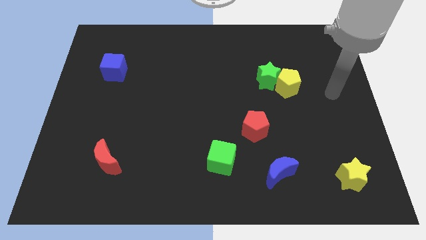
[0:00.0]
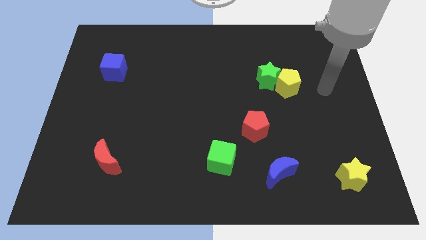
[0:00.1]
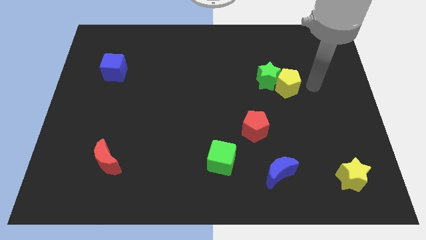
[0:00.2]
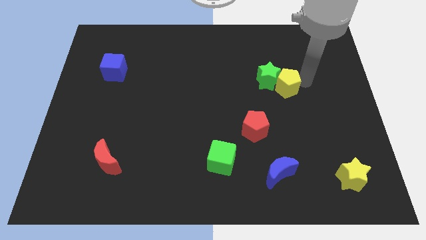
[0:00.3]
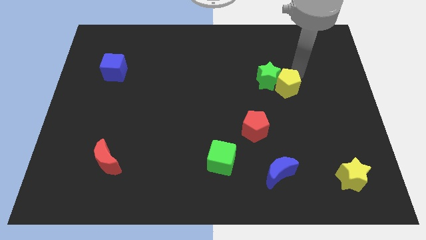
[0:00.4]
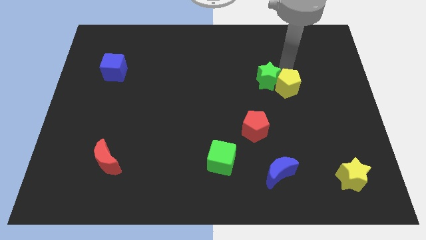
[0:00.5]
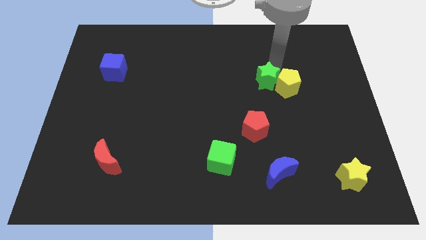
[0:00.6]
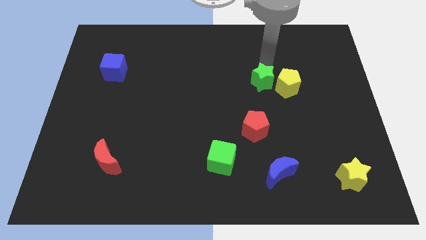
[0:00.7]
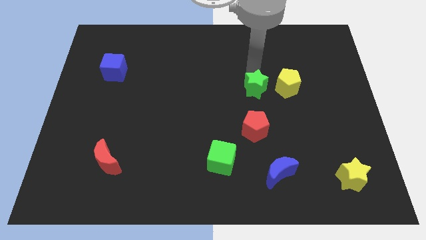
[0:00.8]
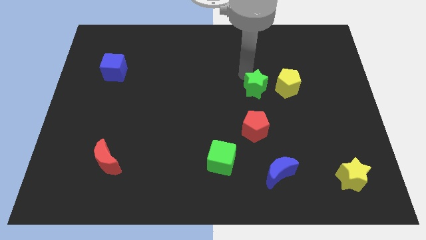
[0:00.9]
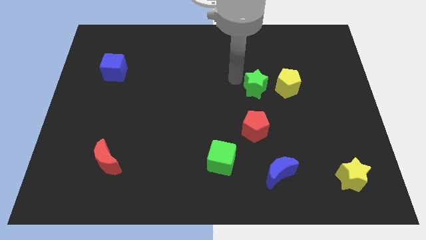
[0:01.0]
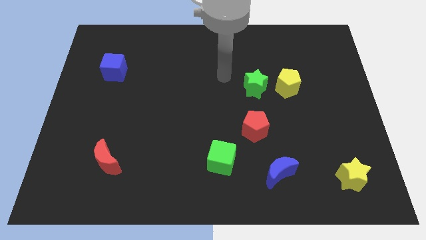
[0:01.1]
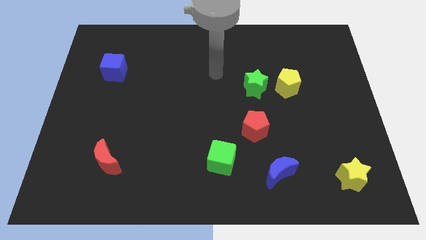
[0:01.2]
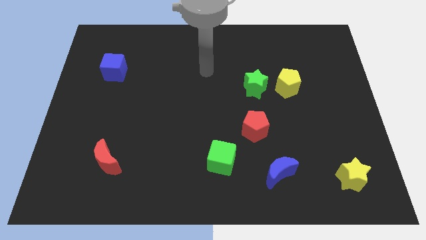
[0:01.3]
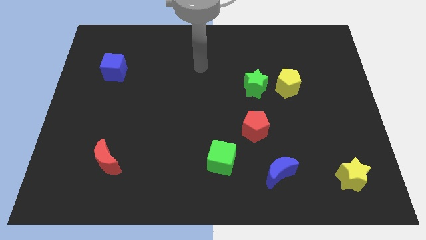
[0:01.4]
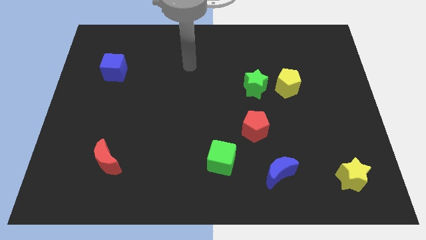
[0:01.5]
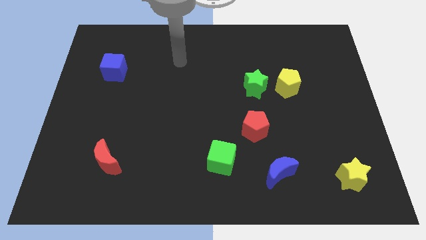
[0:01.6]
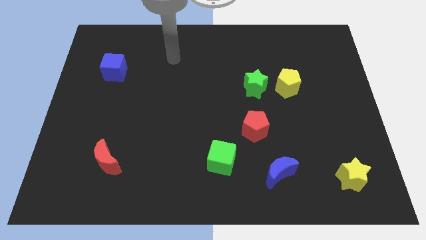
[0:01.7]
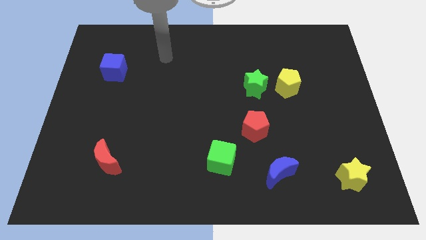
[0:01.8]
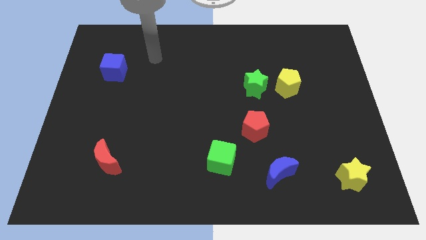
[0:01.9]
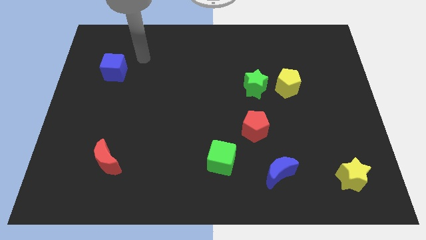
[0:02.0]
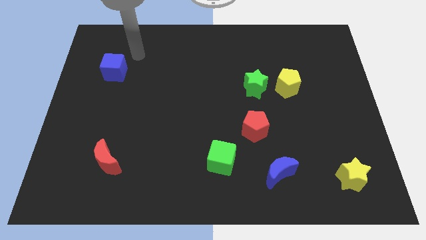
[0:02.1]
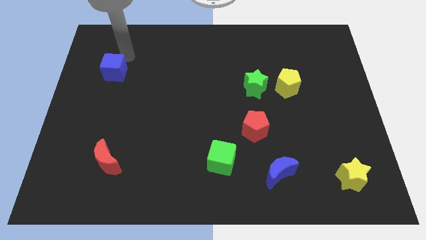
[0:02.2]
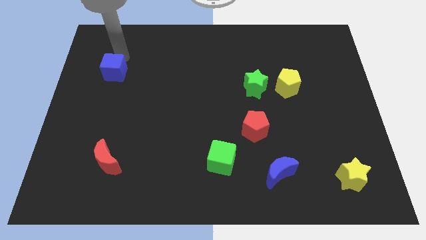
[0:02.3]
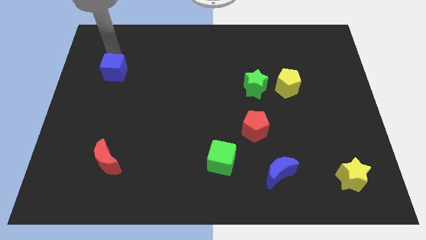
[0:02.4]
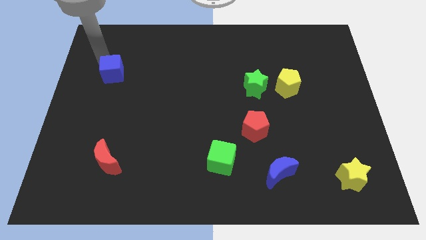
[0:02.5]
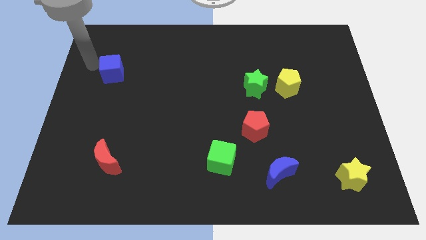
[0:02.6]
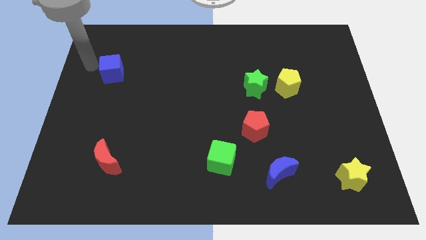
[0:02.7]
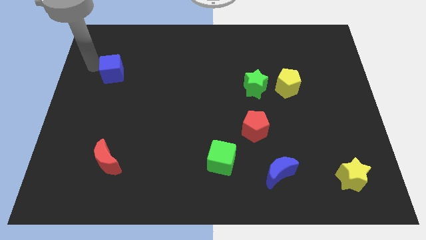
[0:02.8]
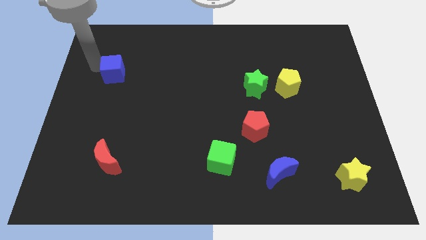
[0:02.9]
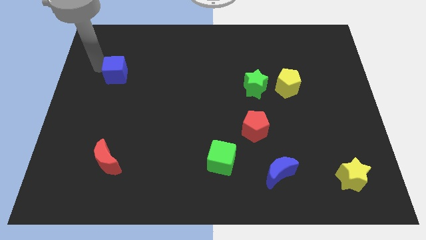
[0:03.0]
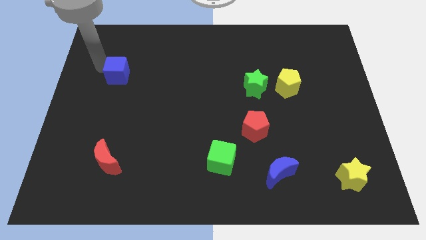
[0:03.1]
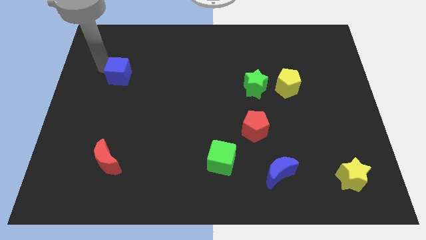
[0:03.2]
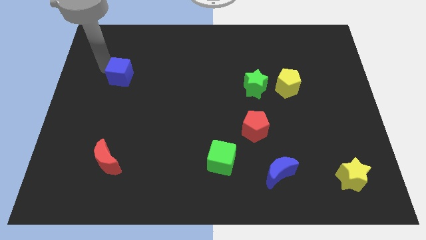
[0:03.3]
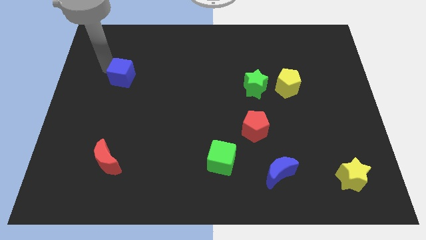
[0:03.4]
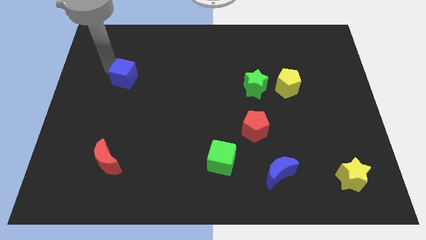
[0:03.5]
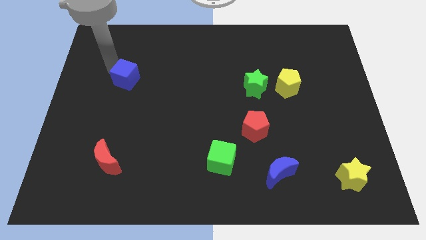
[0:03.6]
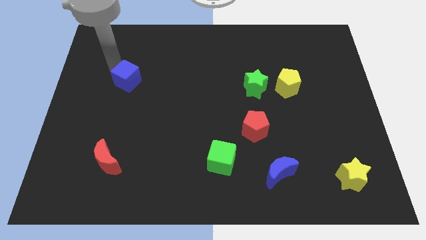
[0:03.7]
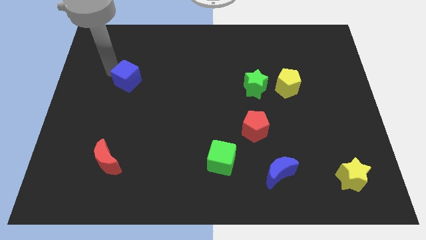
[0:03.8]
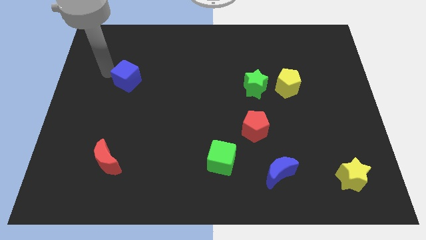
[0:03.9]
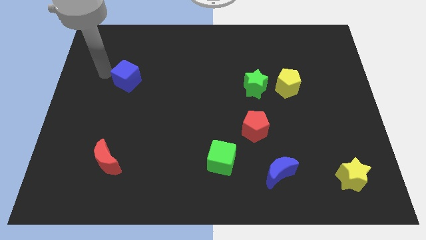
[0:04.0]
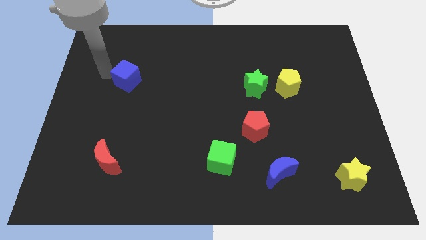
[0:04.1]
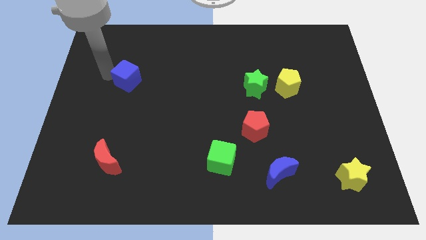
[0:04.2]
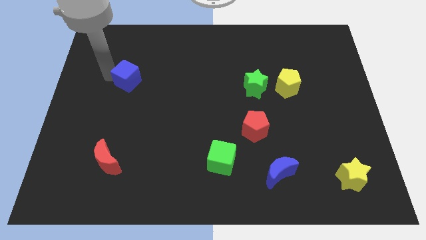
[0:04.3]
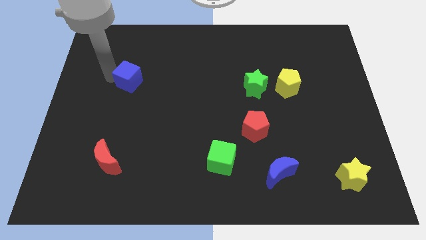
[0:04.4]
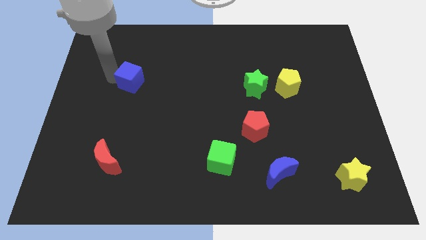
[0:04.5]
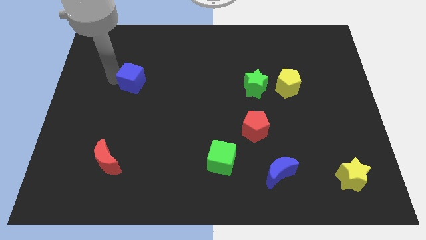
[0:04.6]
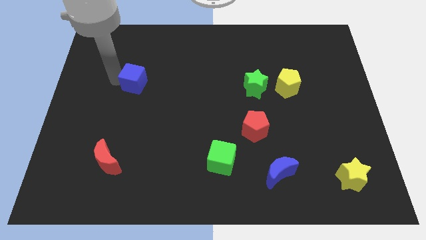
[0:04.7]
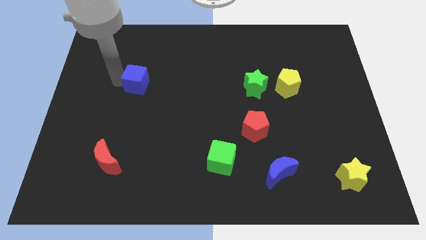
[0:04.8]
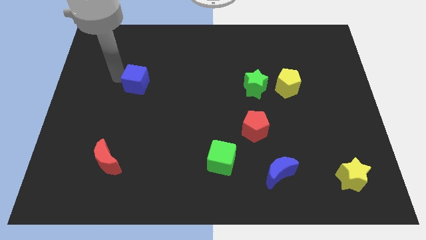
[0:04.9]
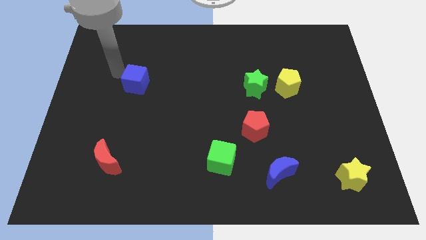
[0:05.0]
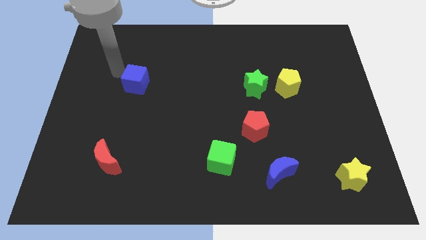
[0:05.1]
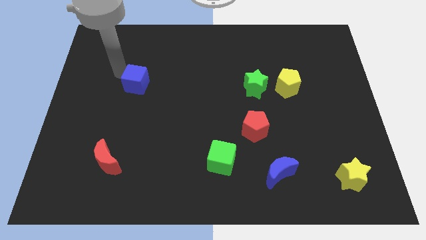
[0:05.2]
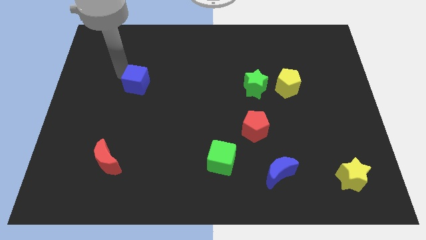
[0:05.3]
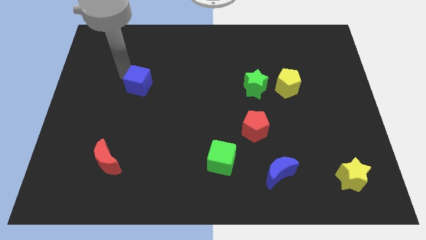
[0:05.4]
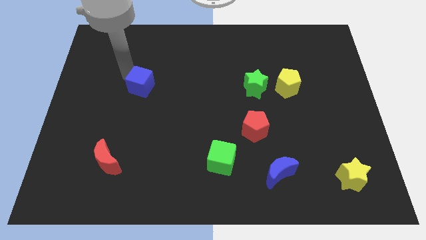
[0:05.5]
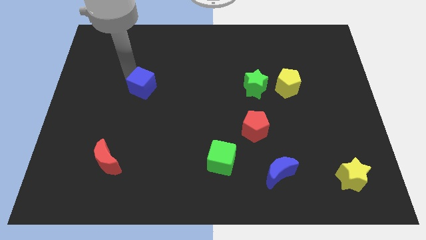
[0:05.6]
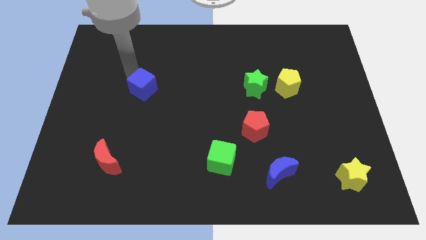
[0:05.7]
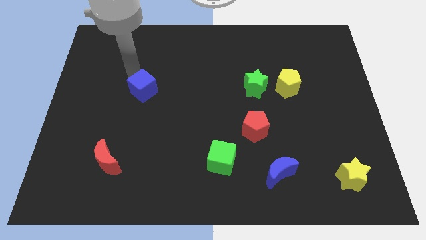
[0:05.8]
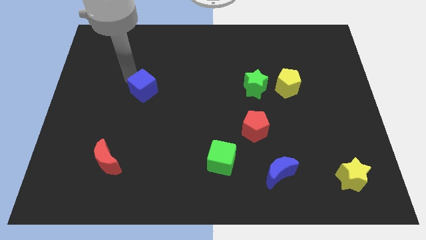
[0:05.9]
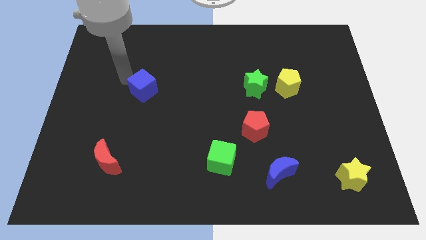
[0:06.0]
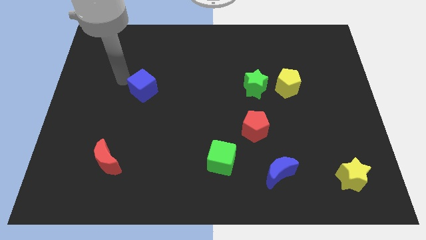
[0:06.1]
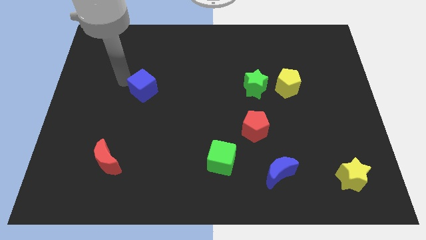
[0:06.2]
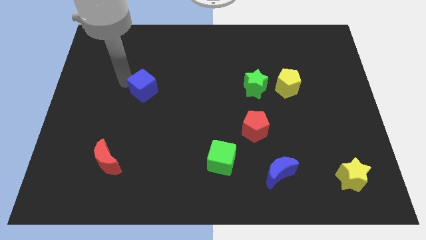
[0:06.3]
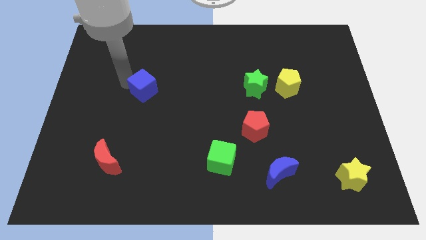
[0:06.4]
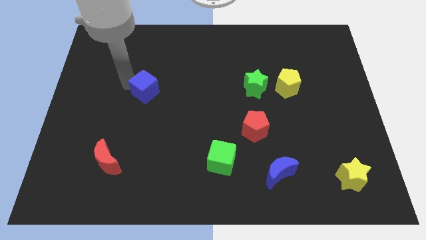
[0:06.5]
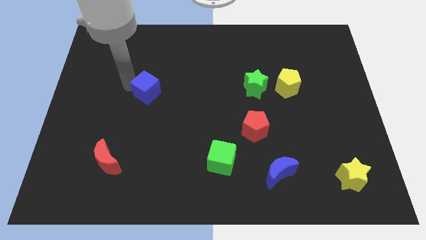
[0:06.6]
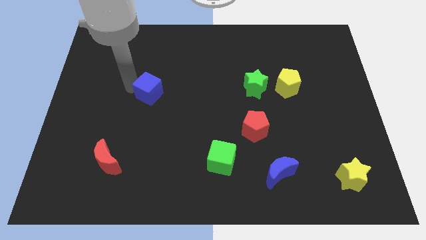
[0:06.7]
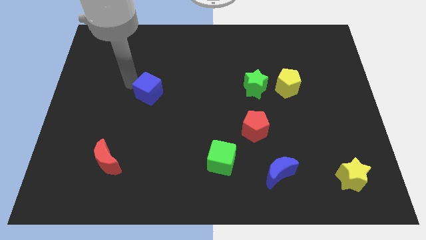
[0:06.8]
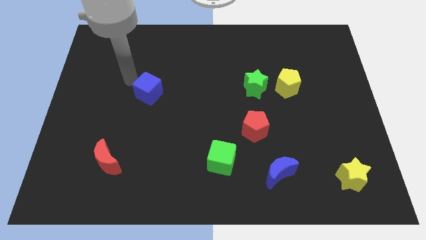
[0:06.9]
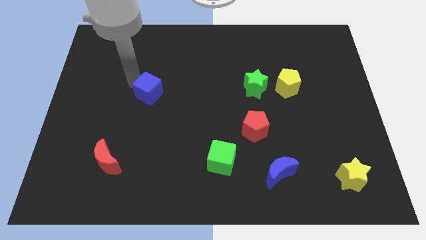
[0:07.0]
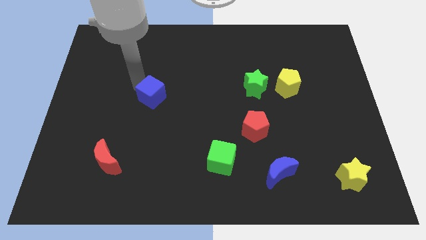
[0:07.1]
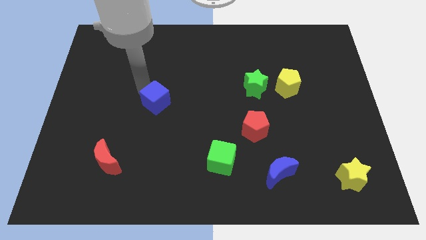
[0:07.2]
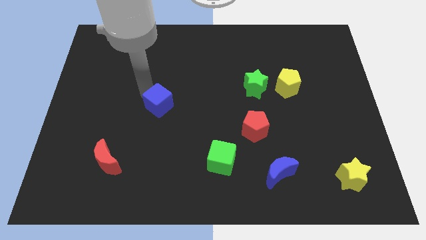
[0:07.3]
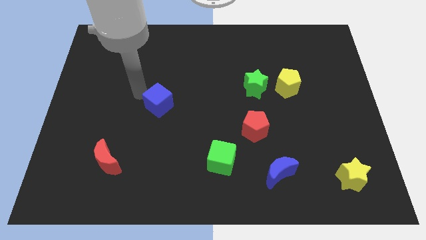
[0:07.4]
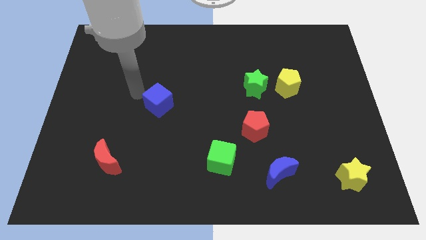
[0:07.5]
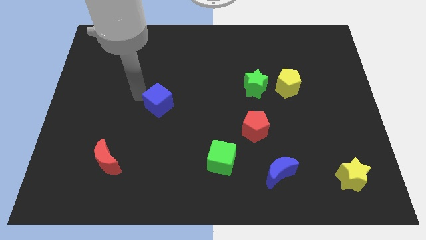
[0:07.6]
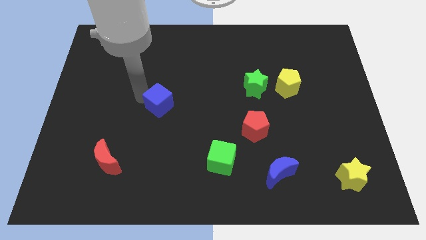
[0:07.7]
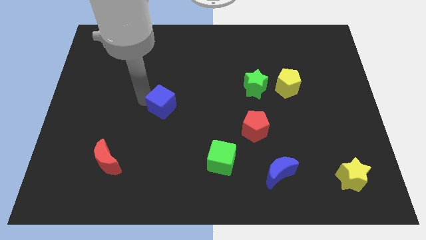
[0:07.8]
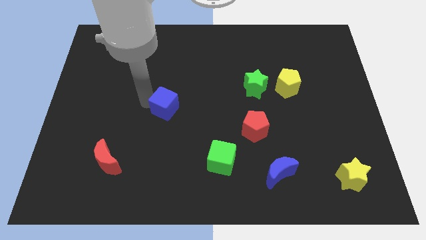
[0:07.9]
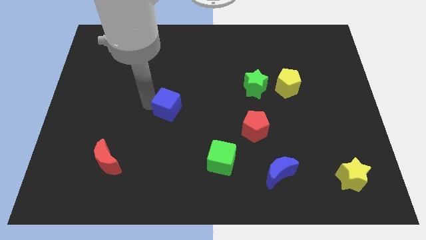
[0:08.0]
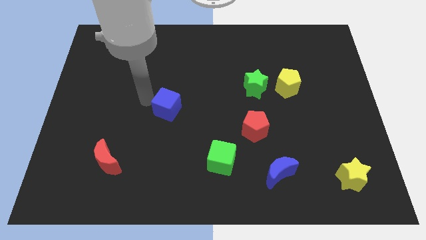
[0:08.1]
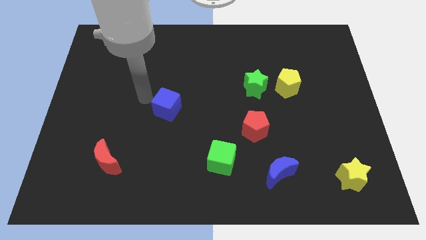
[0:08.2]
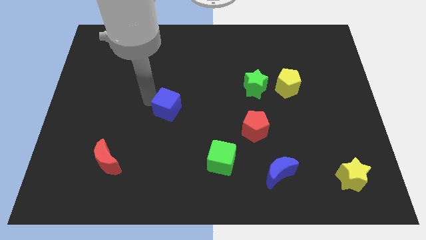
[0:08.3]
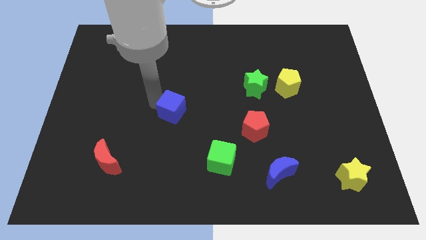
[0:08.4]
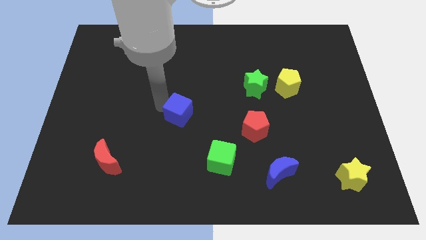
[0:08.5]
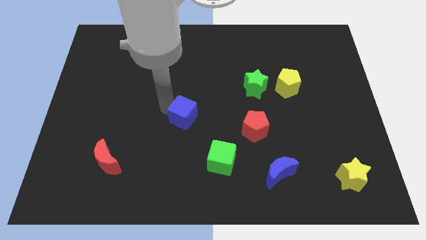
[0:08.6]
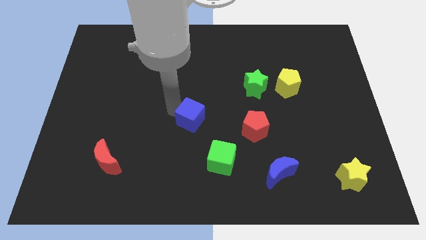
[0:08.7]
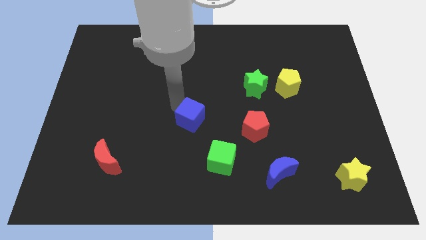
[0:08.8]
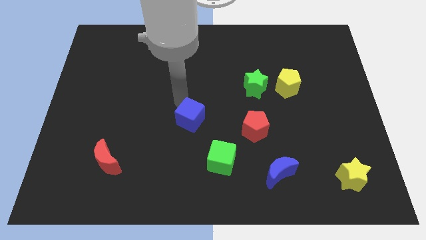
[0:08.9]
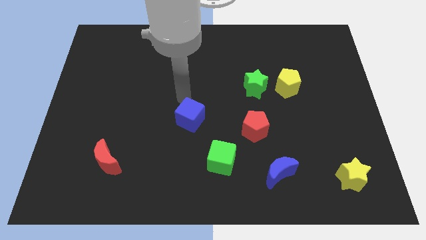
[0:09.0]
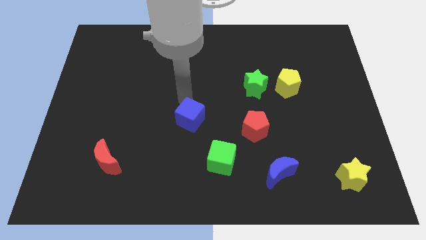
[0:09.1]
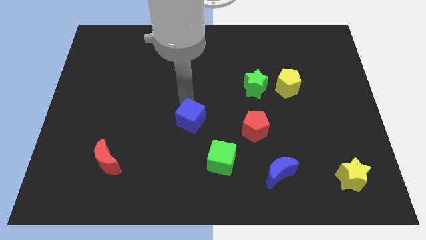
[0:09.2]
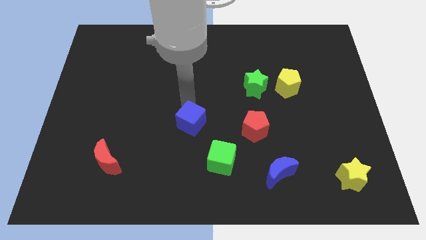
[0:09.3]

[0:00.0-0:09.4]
push the blue cube diagonally up and to the left of the green cube
